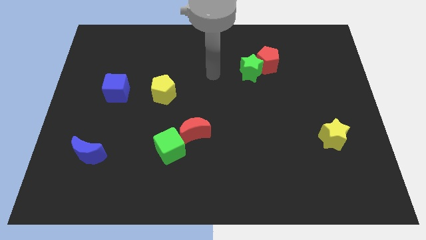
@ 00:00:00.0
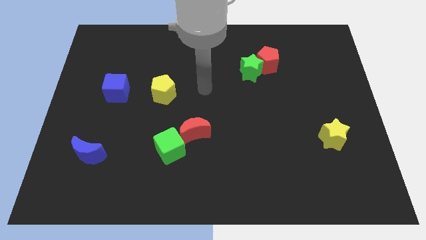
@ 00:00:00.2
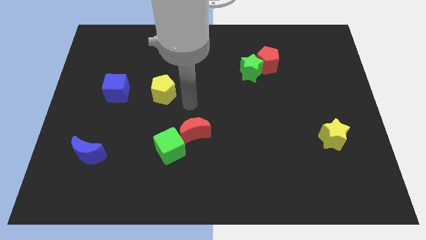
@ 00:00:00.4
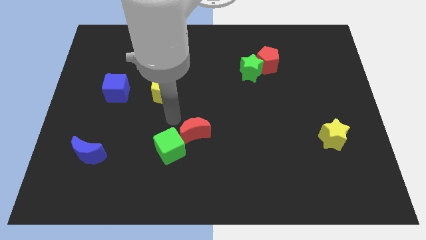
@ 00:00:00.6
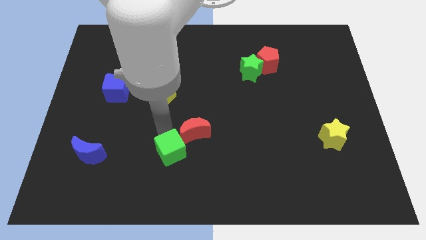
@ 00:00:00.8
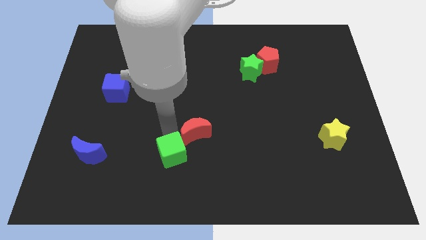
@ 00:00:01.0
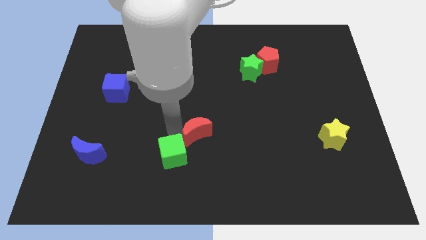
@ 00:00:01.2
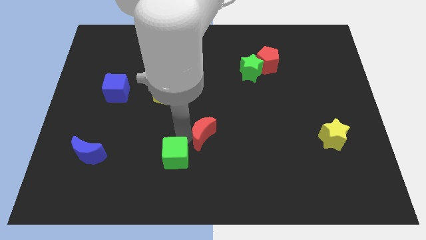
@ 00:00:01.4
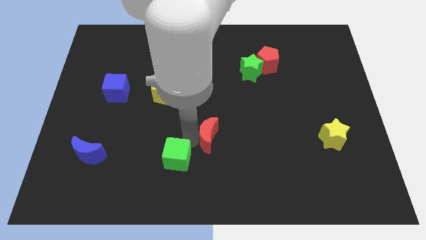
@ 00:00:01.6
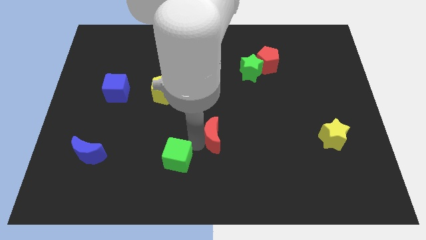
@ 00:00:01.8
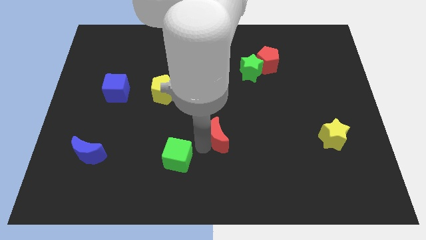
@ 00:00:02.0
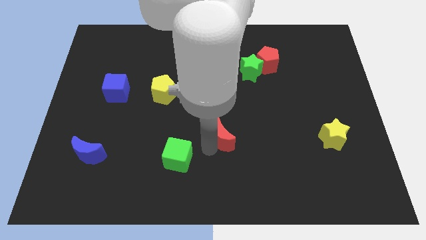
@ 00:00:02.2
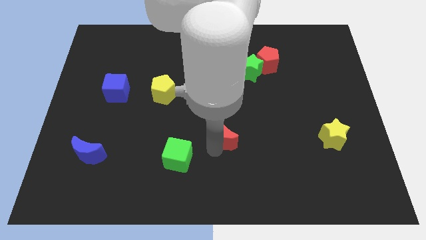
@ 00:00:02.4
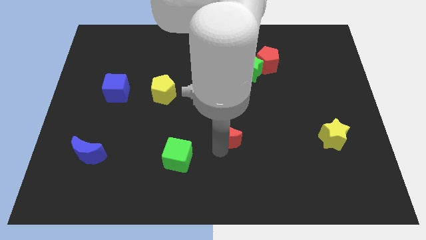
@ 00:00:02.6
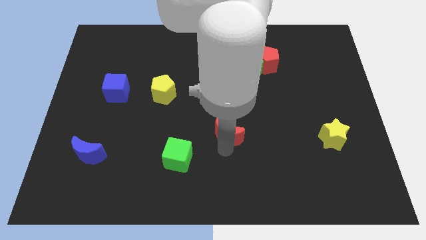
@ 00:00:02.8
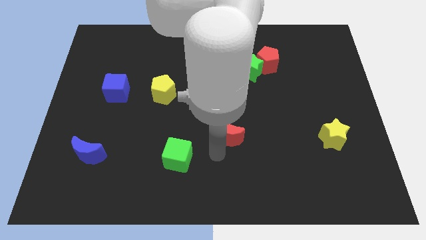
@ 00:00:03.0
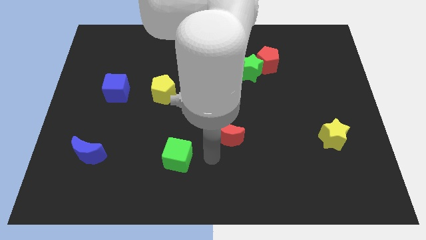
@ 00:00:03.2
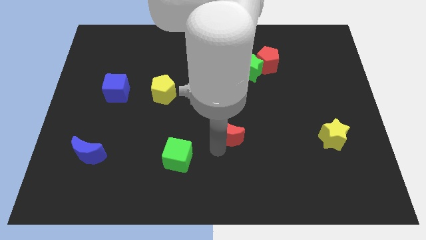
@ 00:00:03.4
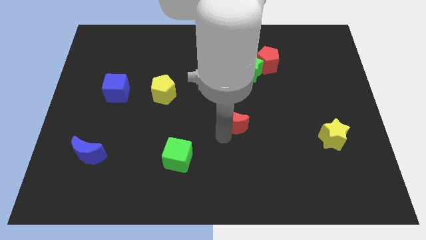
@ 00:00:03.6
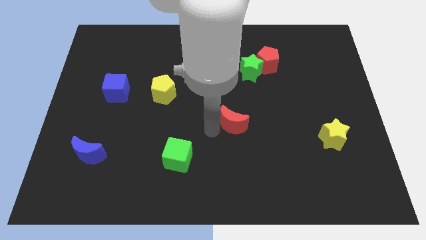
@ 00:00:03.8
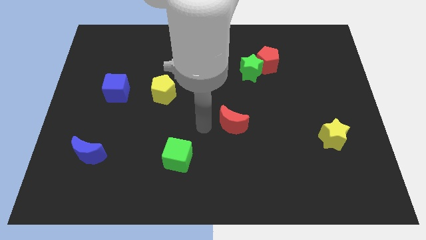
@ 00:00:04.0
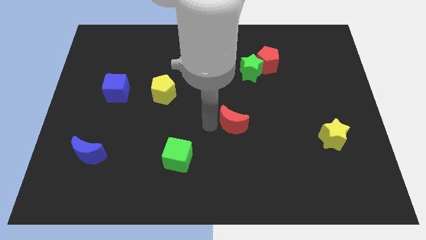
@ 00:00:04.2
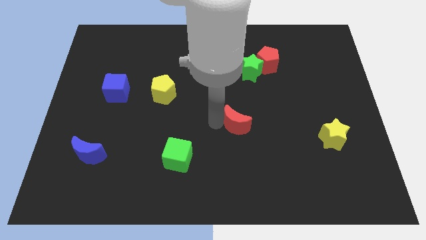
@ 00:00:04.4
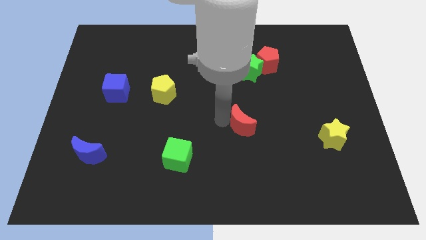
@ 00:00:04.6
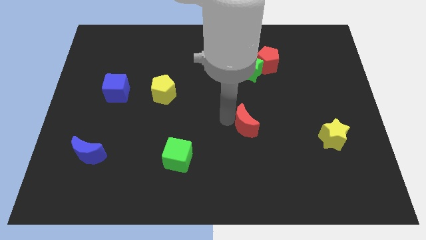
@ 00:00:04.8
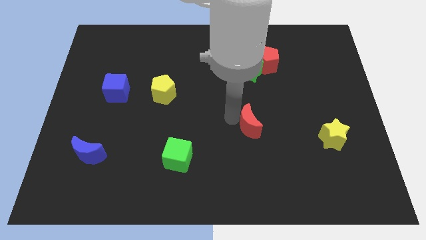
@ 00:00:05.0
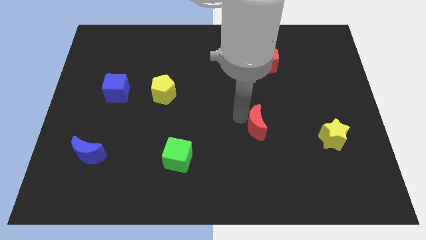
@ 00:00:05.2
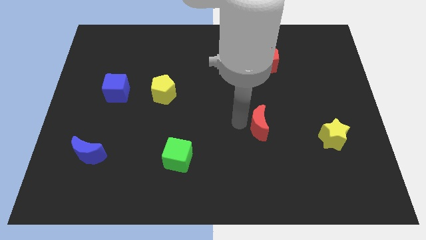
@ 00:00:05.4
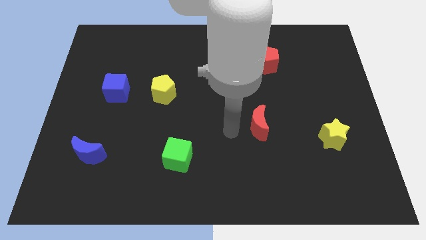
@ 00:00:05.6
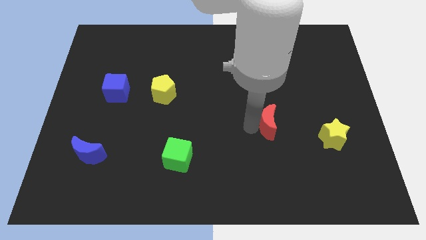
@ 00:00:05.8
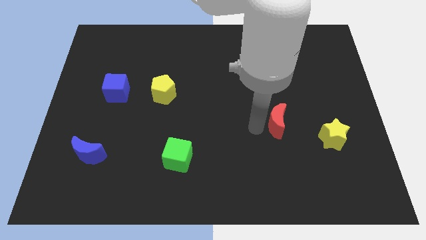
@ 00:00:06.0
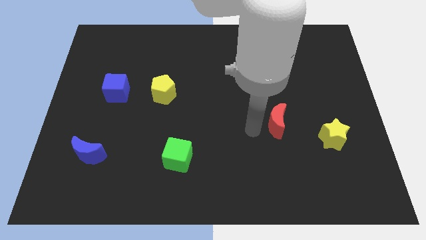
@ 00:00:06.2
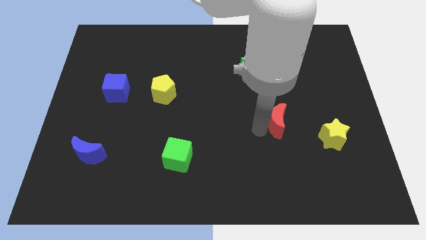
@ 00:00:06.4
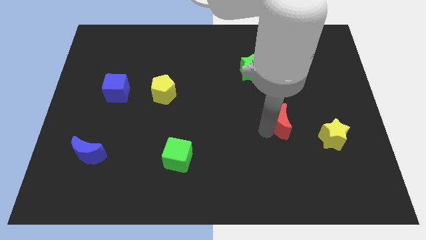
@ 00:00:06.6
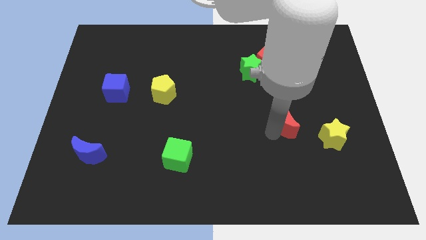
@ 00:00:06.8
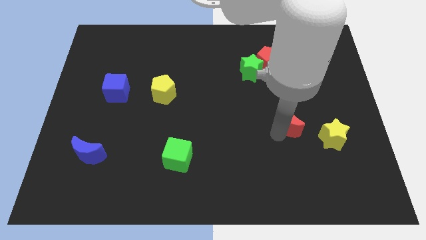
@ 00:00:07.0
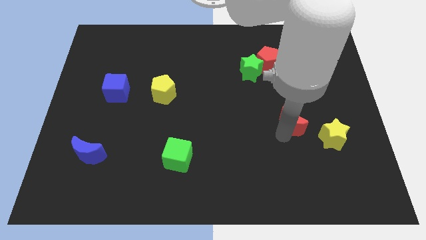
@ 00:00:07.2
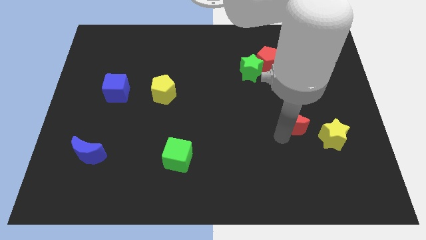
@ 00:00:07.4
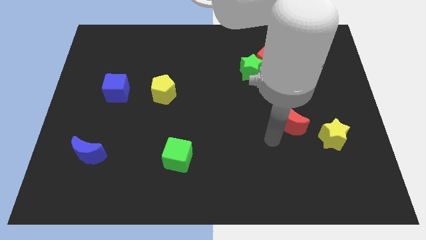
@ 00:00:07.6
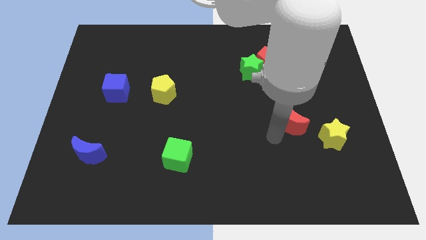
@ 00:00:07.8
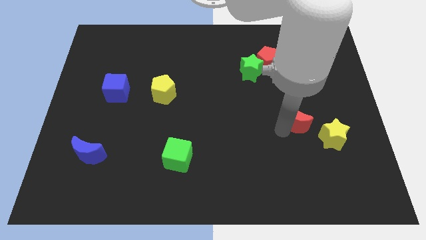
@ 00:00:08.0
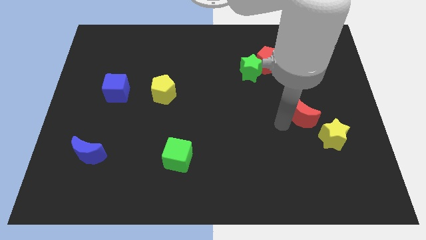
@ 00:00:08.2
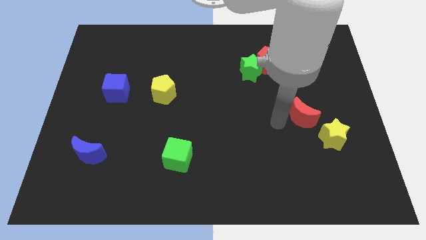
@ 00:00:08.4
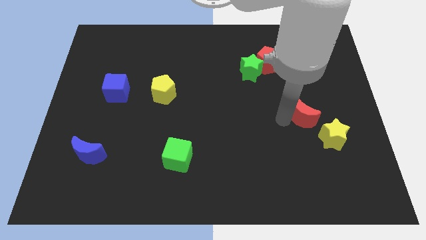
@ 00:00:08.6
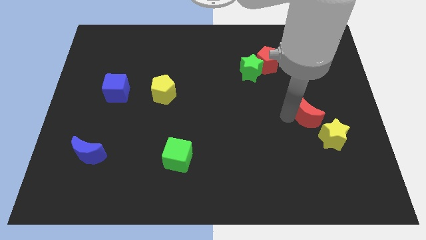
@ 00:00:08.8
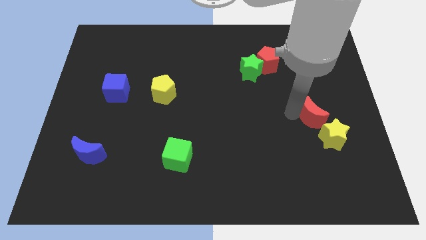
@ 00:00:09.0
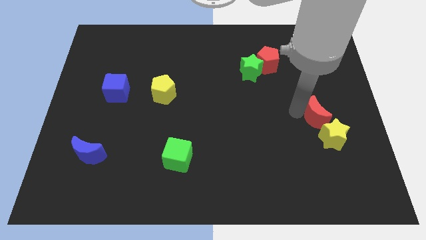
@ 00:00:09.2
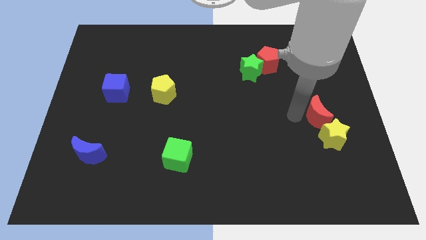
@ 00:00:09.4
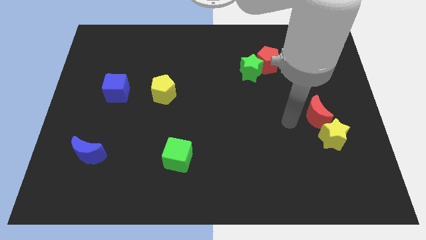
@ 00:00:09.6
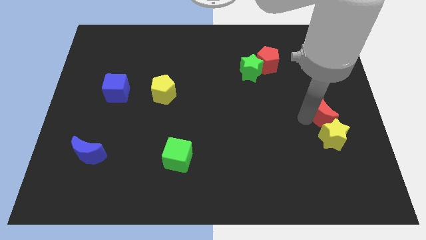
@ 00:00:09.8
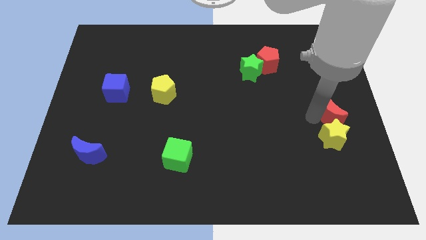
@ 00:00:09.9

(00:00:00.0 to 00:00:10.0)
push the red moon to the right side of the board

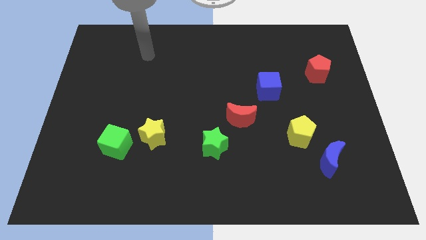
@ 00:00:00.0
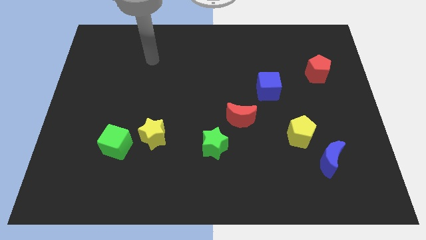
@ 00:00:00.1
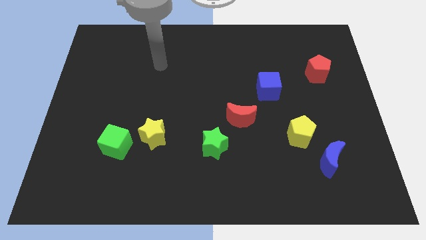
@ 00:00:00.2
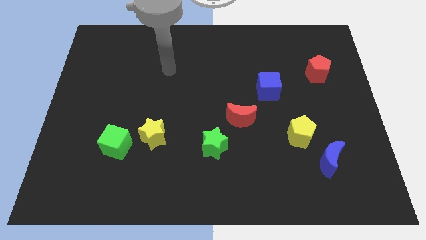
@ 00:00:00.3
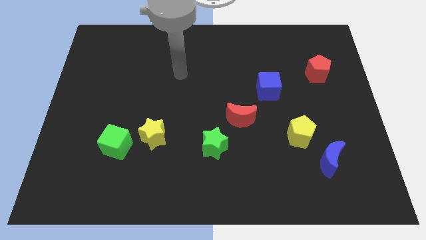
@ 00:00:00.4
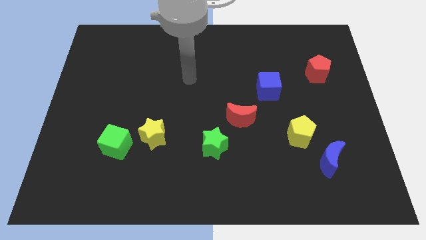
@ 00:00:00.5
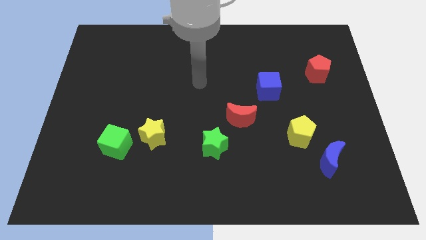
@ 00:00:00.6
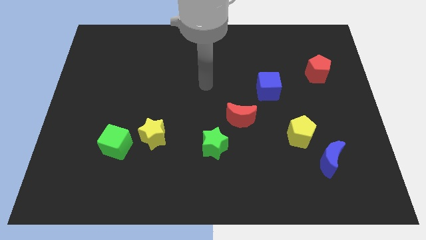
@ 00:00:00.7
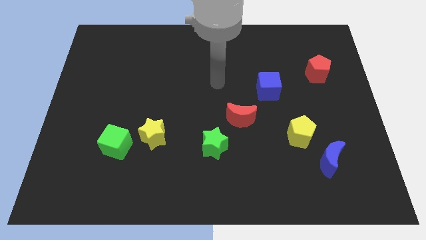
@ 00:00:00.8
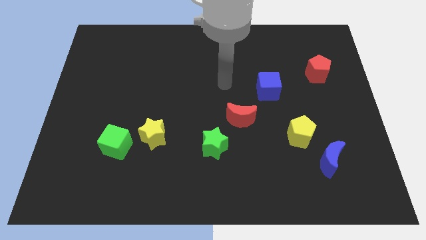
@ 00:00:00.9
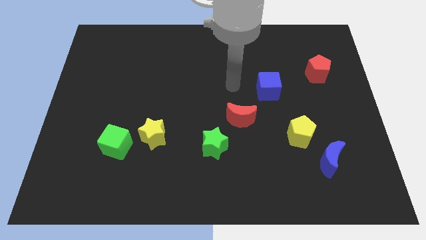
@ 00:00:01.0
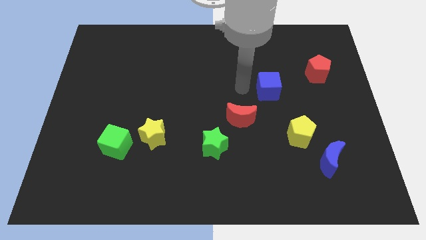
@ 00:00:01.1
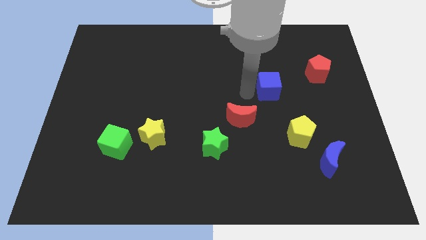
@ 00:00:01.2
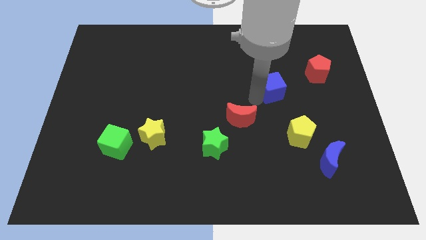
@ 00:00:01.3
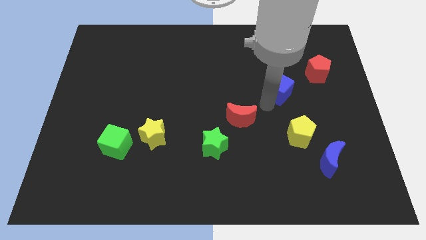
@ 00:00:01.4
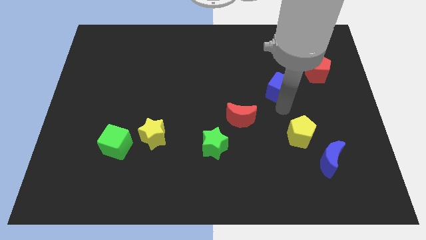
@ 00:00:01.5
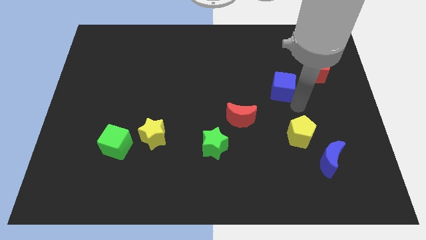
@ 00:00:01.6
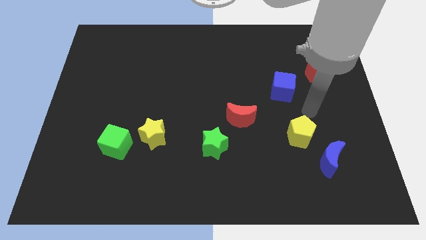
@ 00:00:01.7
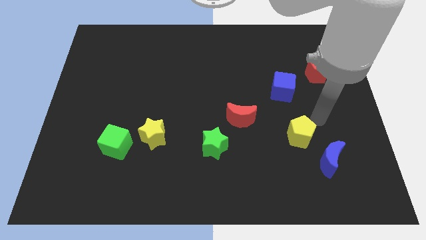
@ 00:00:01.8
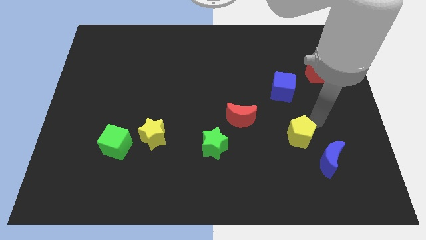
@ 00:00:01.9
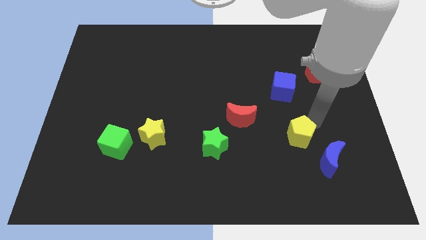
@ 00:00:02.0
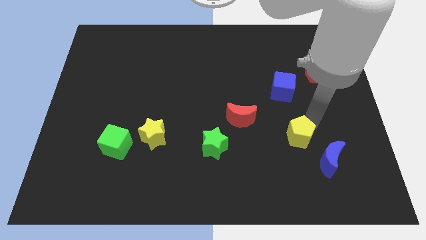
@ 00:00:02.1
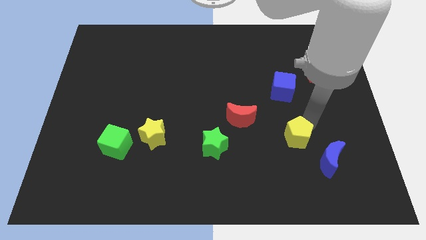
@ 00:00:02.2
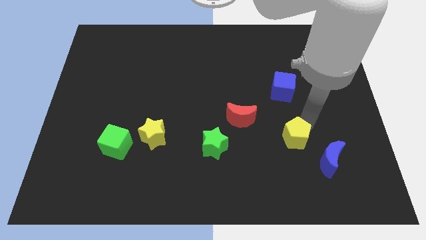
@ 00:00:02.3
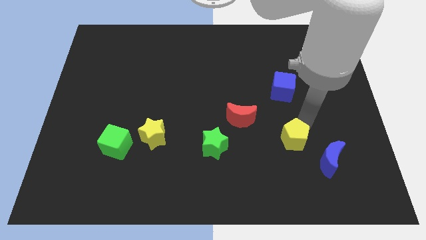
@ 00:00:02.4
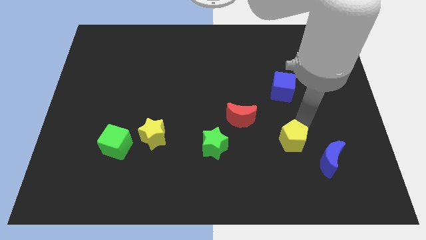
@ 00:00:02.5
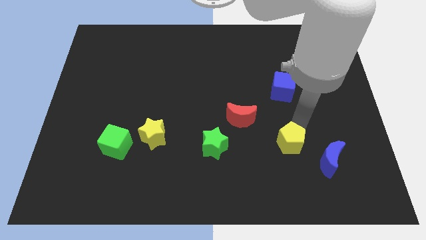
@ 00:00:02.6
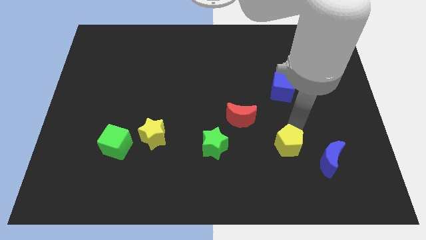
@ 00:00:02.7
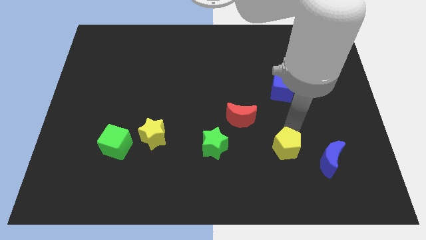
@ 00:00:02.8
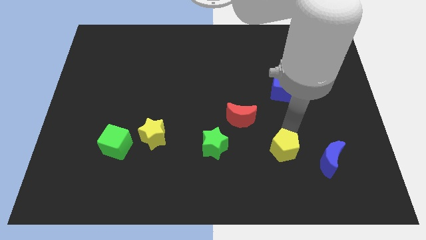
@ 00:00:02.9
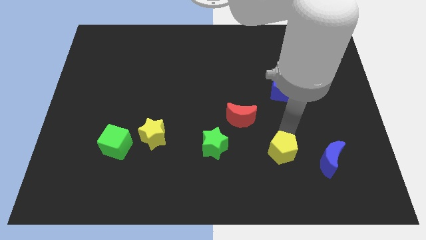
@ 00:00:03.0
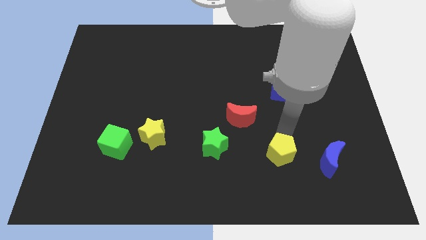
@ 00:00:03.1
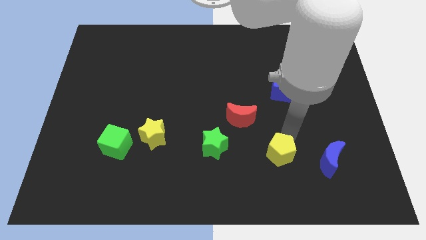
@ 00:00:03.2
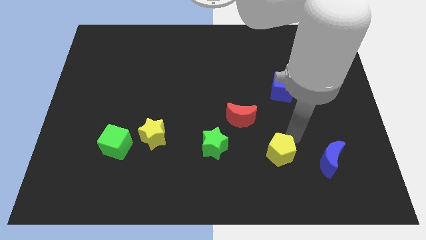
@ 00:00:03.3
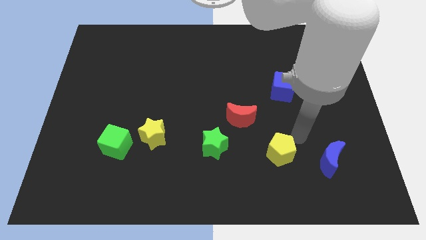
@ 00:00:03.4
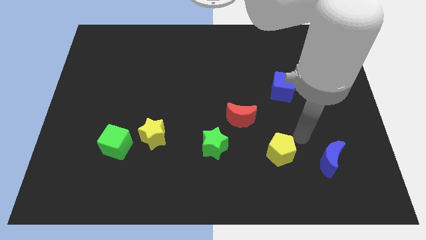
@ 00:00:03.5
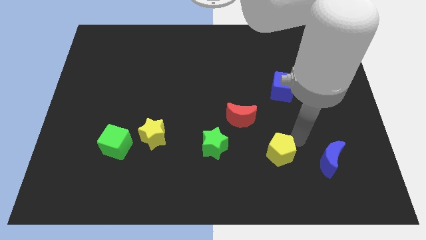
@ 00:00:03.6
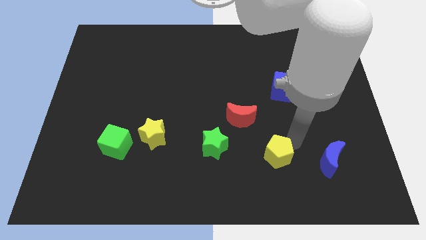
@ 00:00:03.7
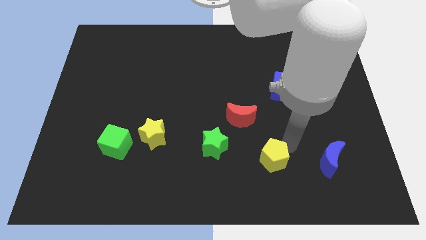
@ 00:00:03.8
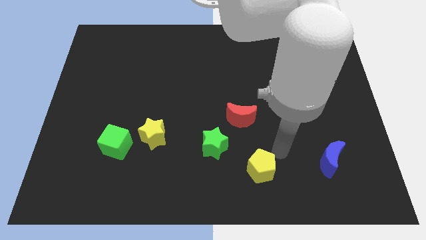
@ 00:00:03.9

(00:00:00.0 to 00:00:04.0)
put the yellow pentagon to the bottom side
